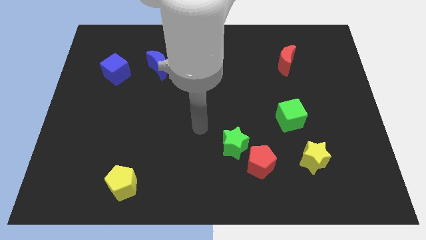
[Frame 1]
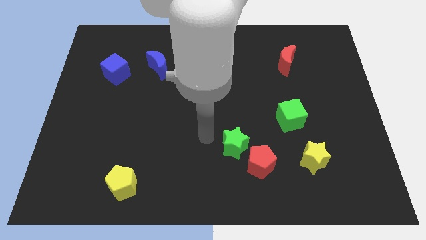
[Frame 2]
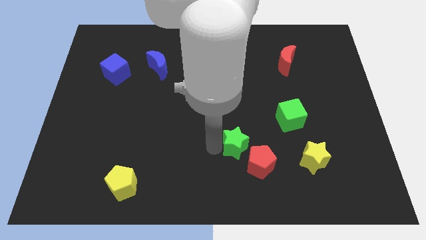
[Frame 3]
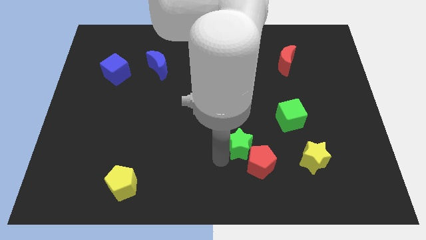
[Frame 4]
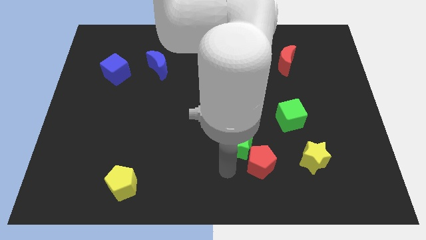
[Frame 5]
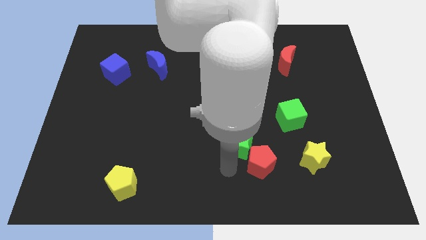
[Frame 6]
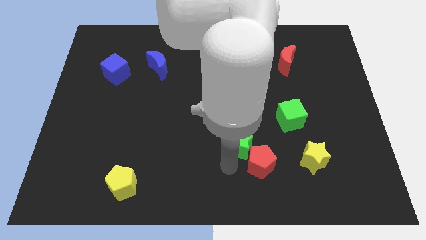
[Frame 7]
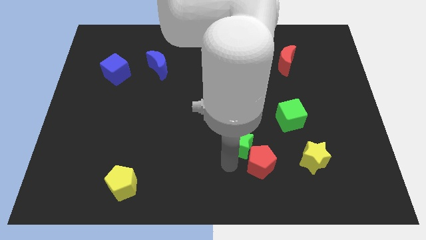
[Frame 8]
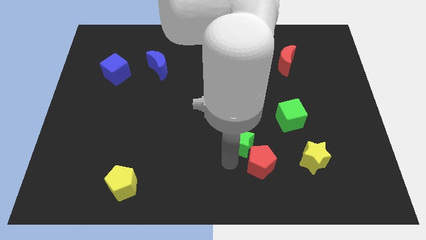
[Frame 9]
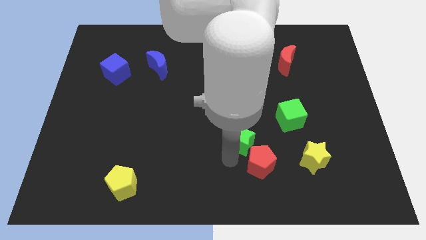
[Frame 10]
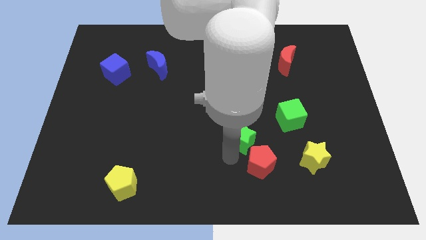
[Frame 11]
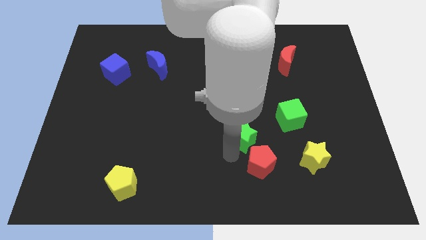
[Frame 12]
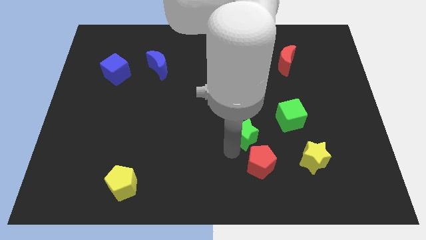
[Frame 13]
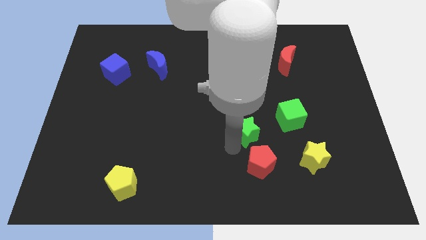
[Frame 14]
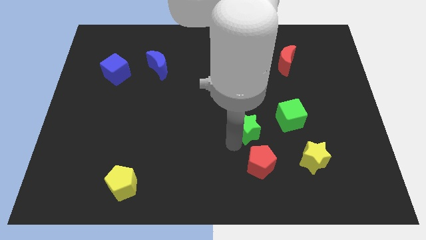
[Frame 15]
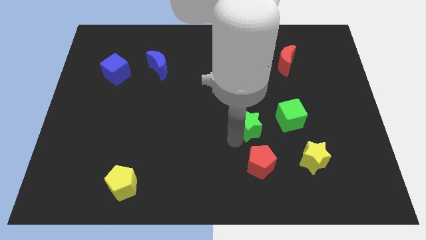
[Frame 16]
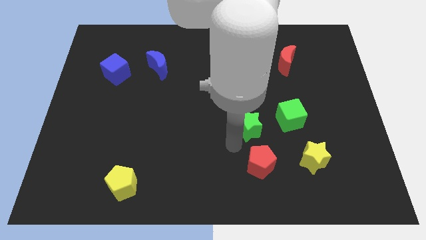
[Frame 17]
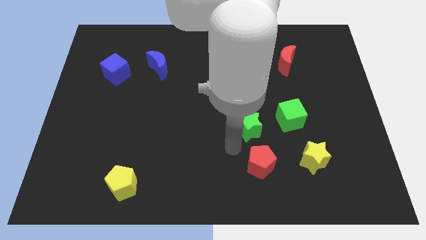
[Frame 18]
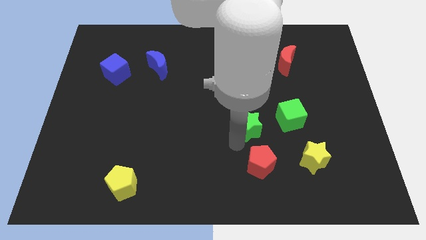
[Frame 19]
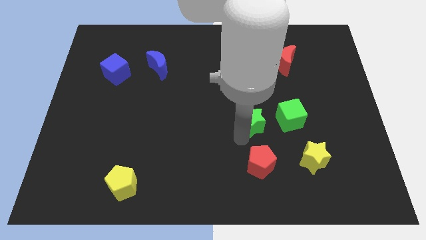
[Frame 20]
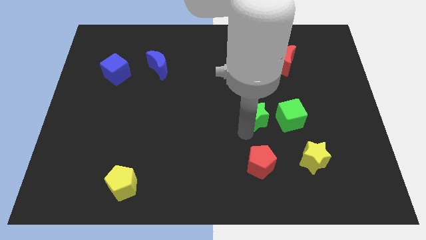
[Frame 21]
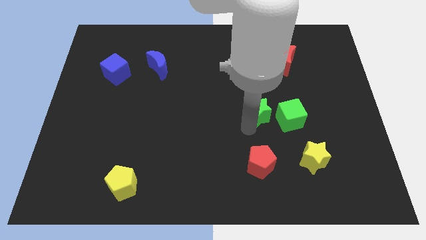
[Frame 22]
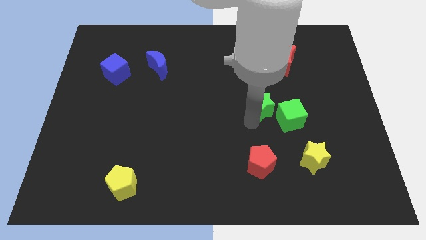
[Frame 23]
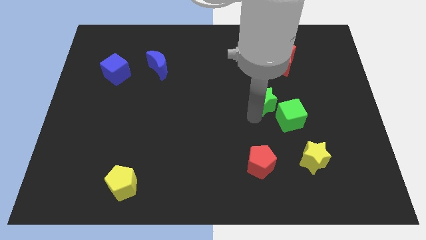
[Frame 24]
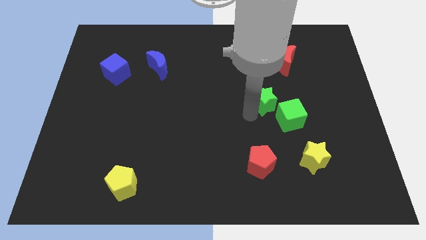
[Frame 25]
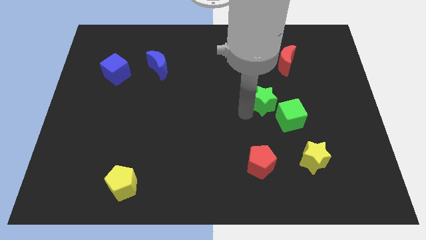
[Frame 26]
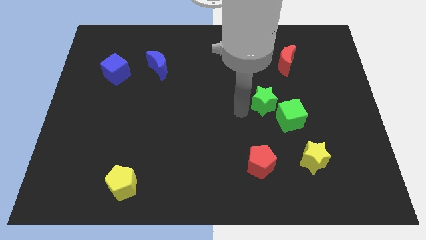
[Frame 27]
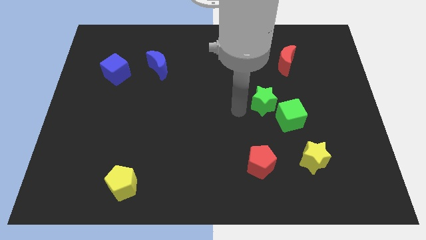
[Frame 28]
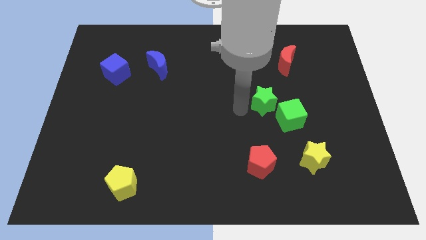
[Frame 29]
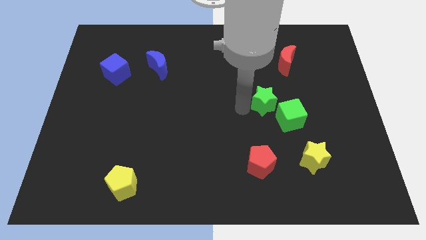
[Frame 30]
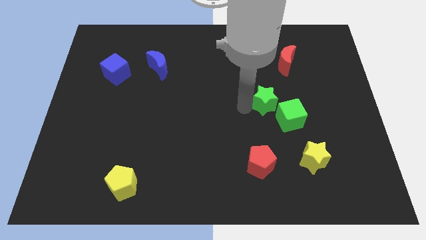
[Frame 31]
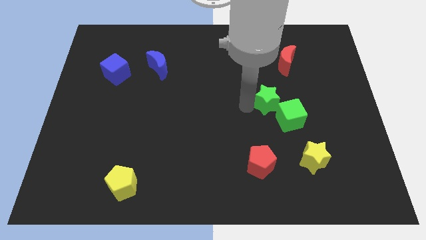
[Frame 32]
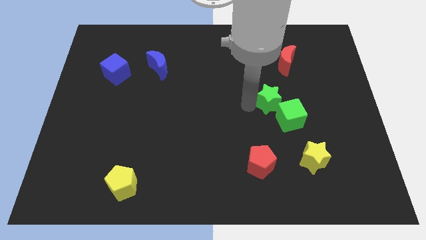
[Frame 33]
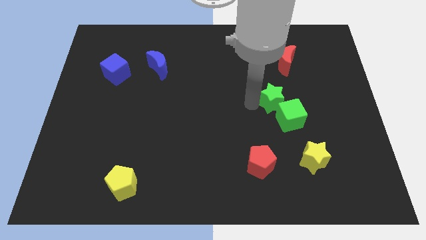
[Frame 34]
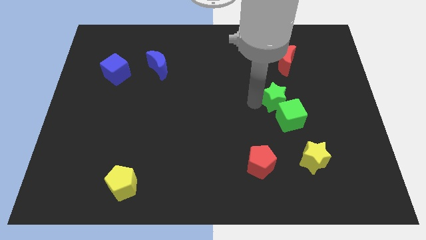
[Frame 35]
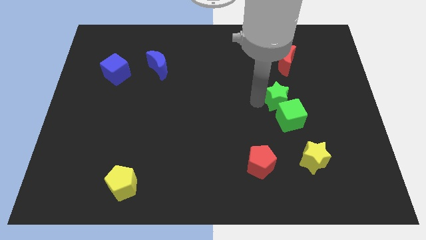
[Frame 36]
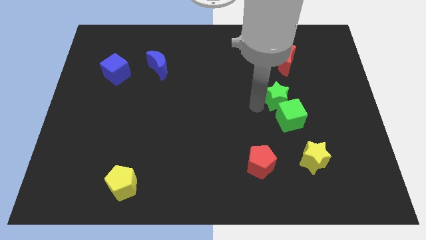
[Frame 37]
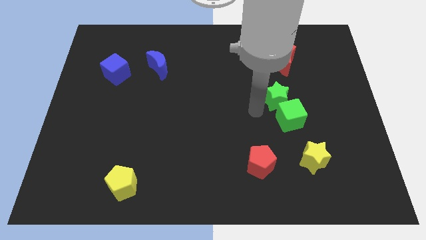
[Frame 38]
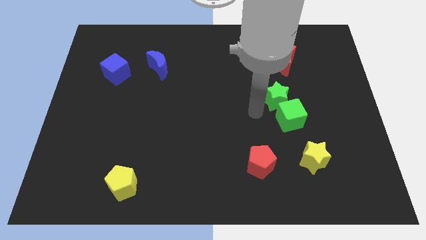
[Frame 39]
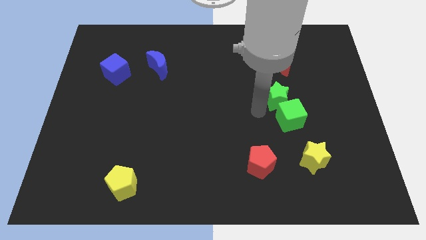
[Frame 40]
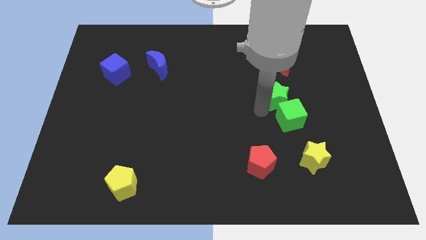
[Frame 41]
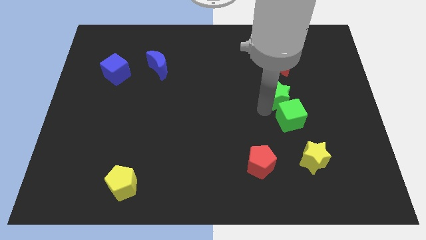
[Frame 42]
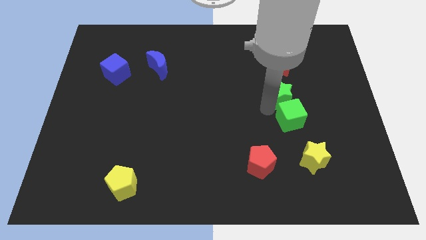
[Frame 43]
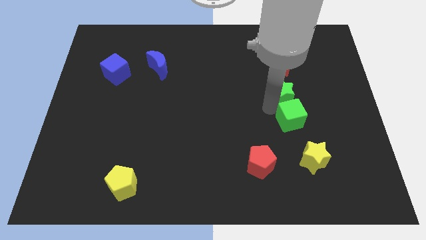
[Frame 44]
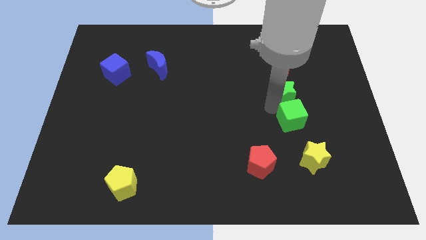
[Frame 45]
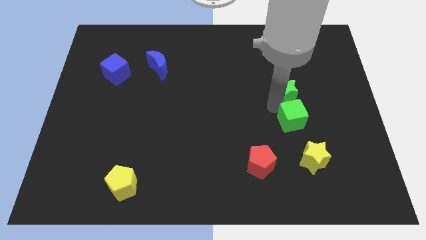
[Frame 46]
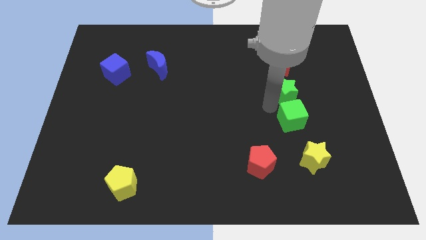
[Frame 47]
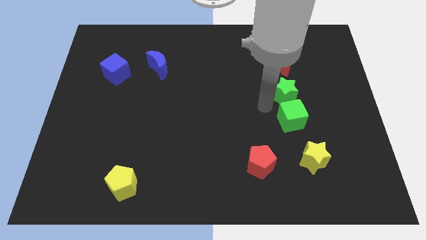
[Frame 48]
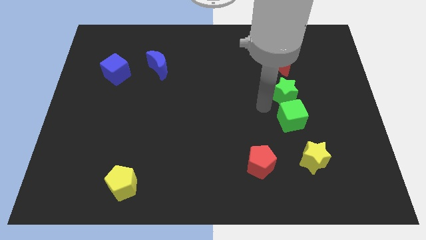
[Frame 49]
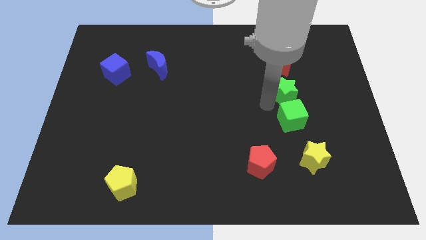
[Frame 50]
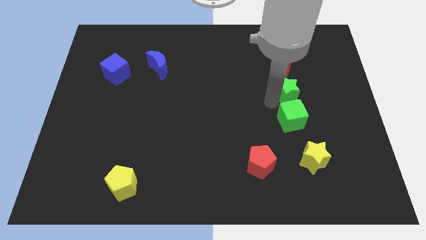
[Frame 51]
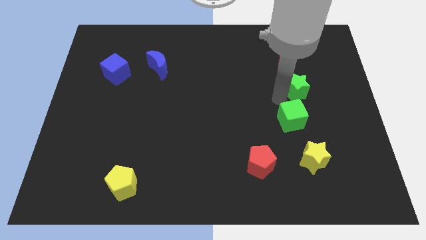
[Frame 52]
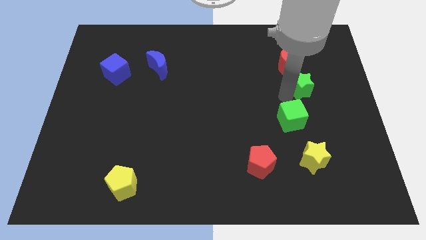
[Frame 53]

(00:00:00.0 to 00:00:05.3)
put the green star to the bottom right of the red moon

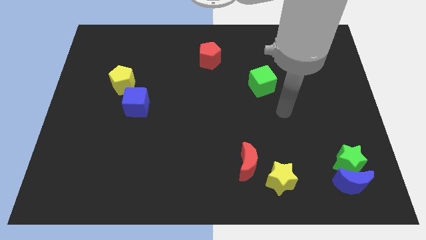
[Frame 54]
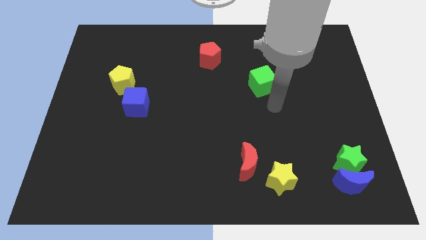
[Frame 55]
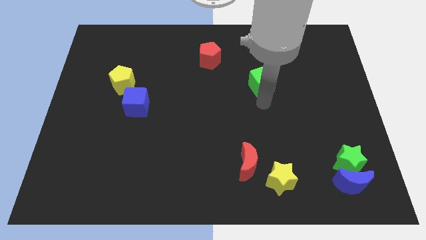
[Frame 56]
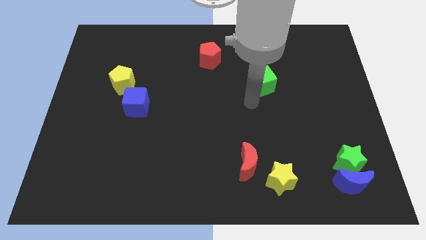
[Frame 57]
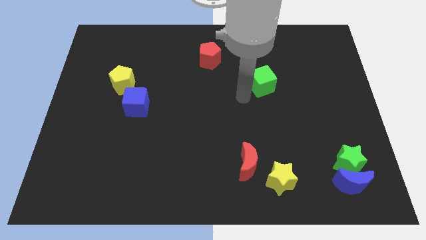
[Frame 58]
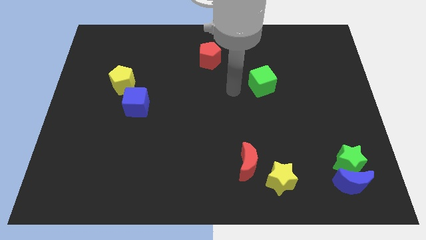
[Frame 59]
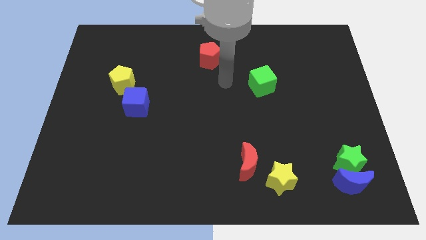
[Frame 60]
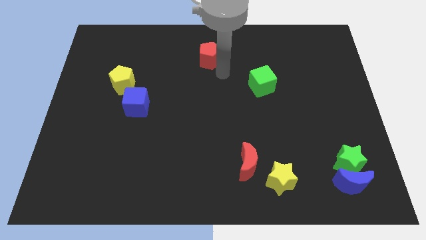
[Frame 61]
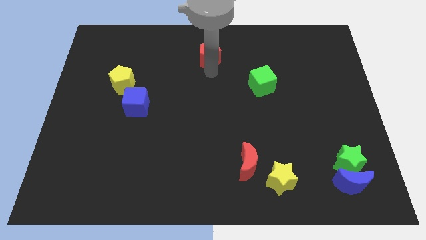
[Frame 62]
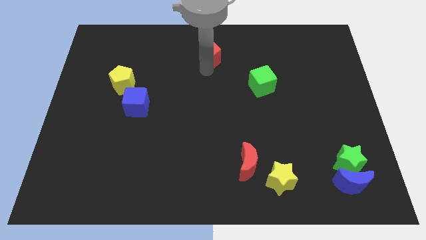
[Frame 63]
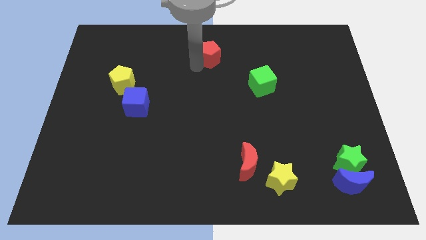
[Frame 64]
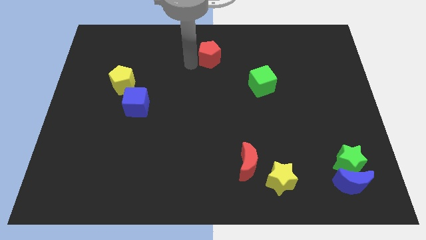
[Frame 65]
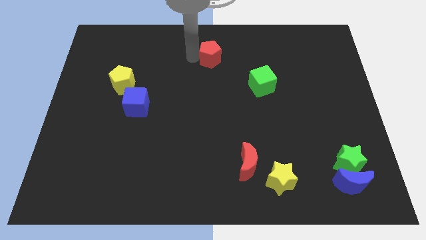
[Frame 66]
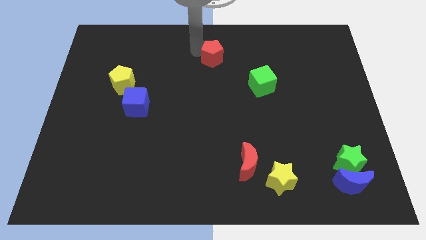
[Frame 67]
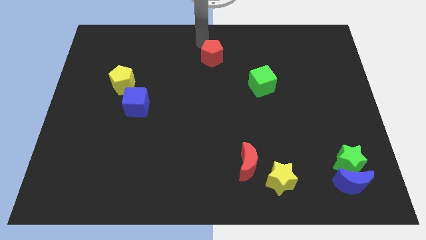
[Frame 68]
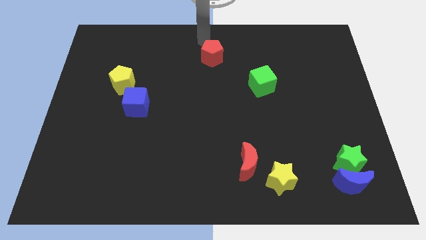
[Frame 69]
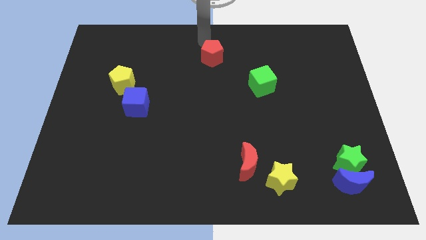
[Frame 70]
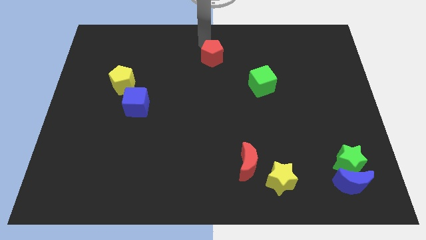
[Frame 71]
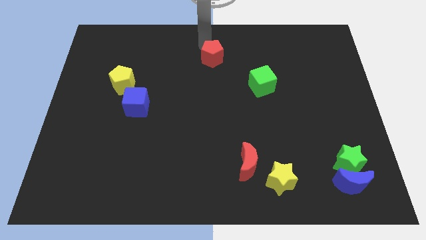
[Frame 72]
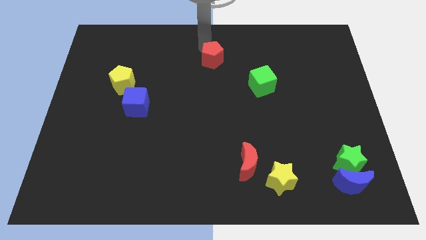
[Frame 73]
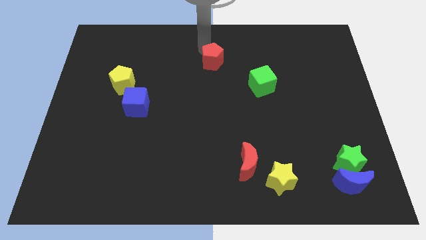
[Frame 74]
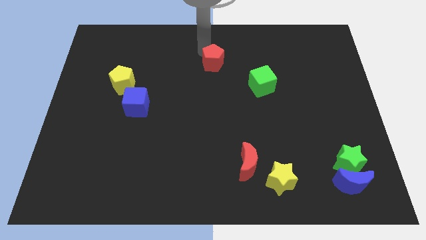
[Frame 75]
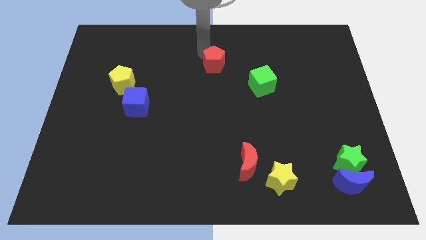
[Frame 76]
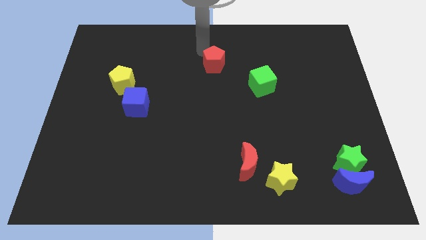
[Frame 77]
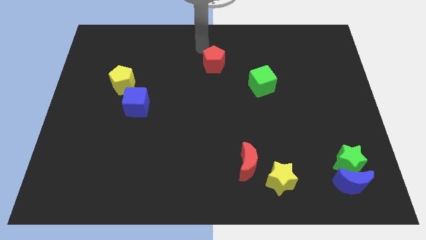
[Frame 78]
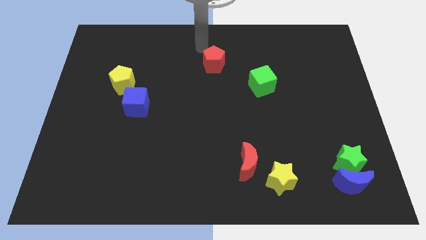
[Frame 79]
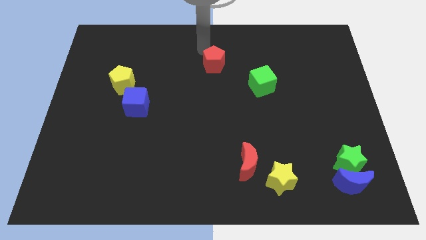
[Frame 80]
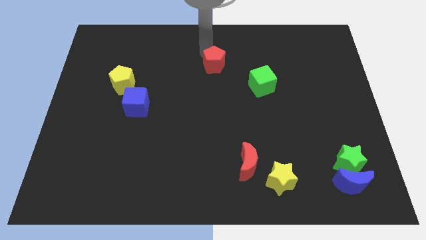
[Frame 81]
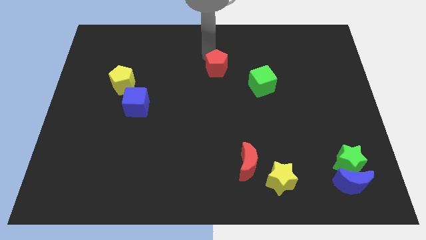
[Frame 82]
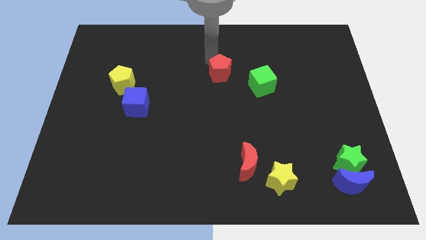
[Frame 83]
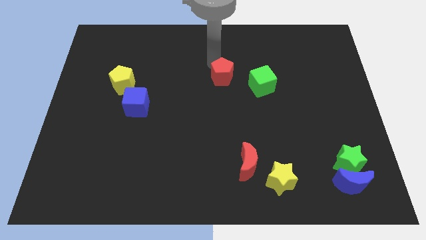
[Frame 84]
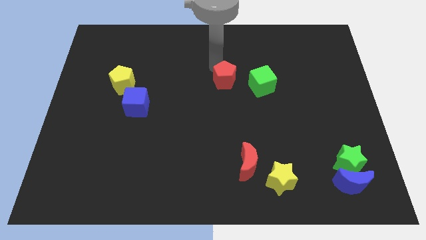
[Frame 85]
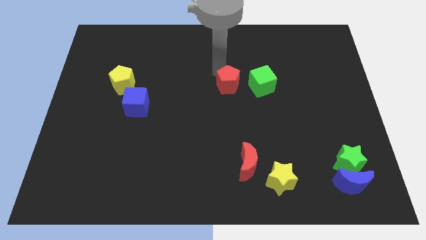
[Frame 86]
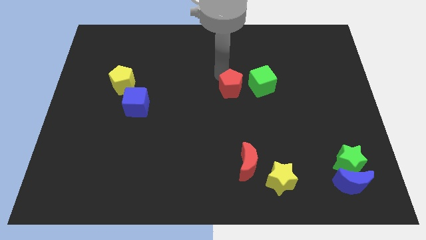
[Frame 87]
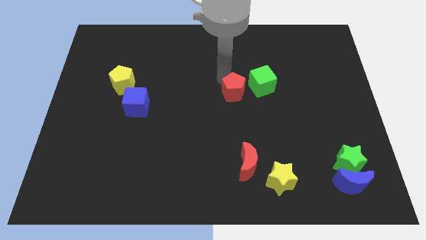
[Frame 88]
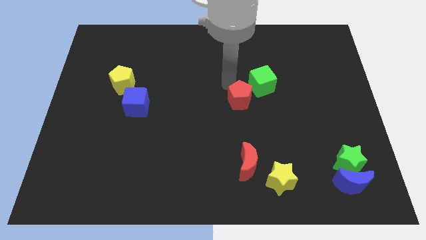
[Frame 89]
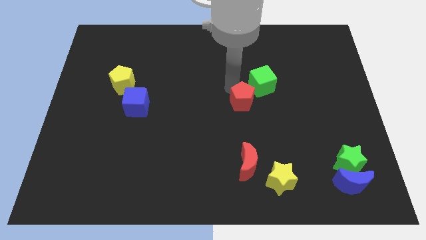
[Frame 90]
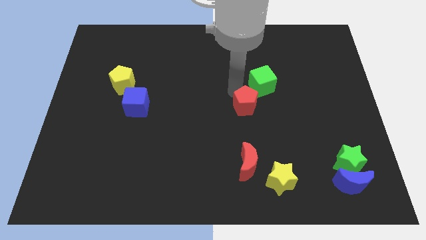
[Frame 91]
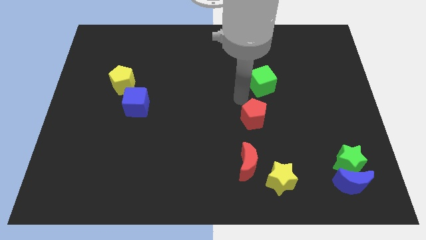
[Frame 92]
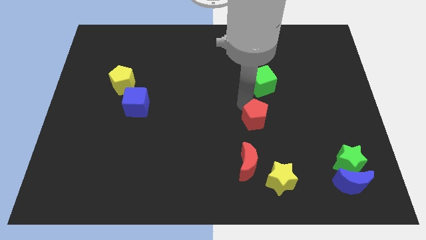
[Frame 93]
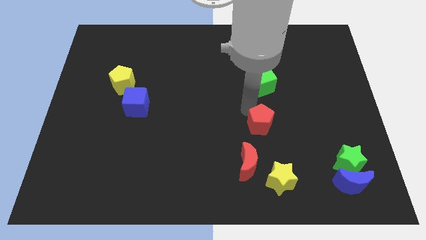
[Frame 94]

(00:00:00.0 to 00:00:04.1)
move the red pentagon to the top side of the yellow star
